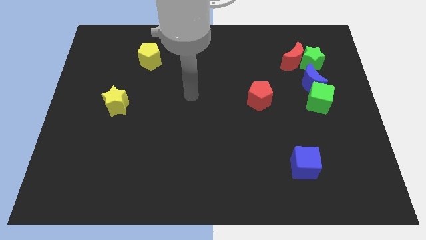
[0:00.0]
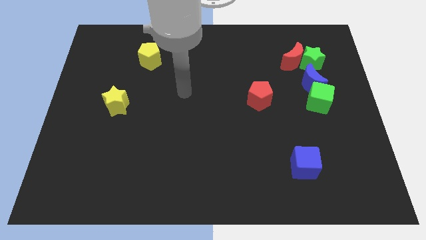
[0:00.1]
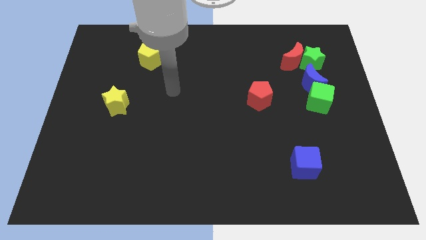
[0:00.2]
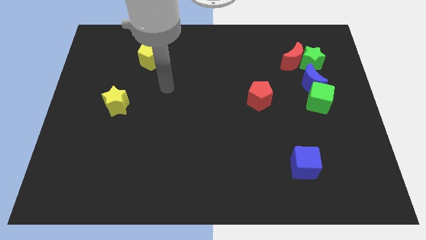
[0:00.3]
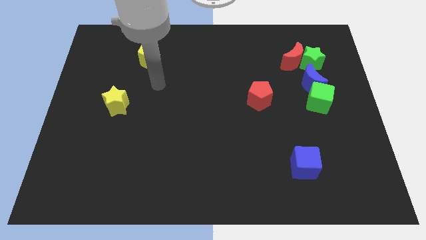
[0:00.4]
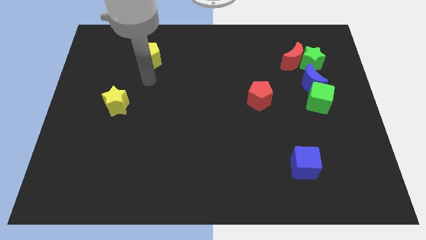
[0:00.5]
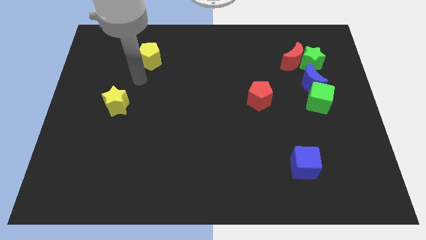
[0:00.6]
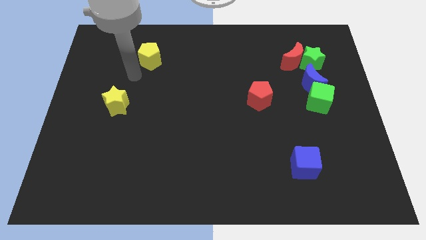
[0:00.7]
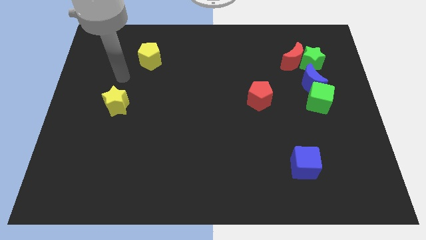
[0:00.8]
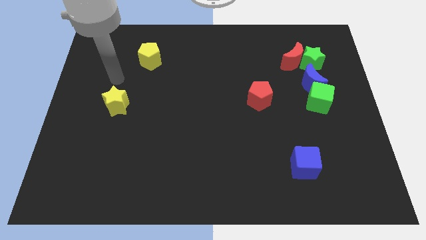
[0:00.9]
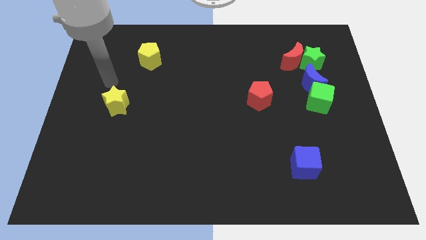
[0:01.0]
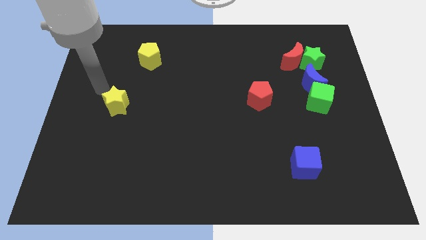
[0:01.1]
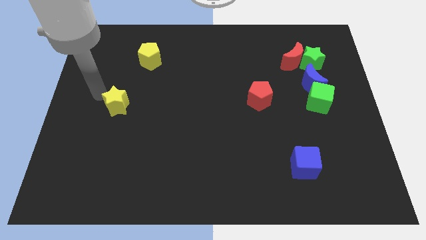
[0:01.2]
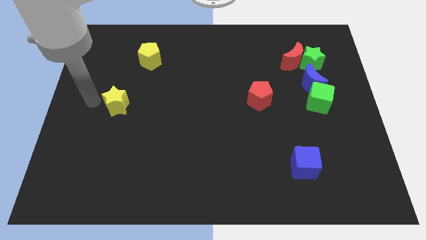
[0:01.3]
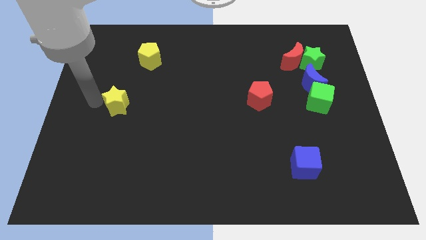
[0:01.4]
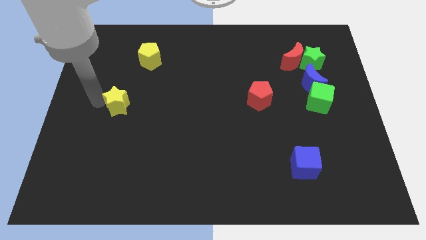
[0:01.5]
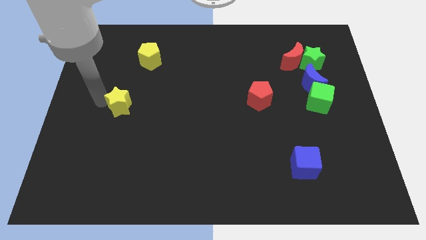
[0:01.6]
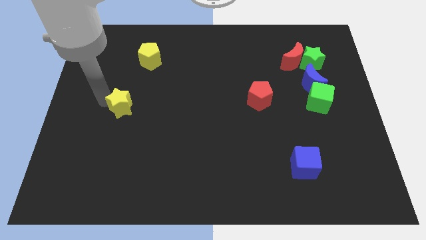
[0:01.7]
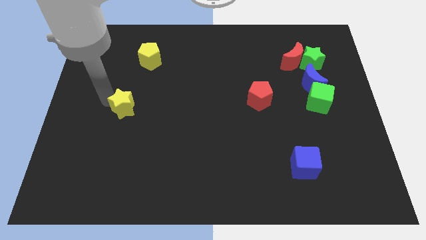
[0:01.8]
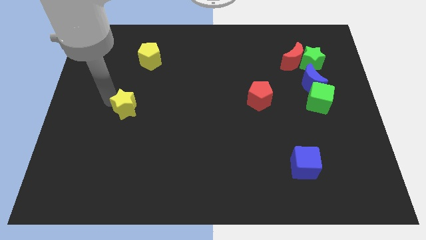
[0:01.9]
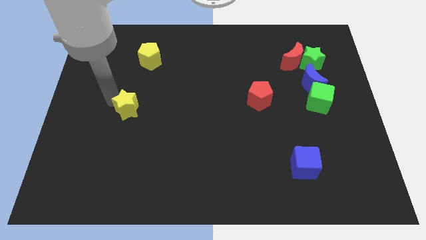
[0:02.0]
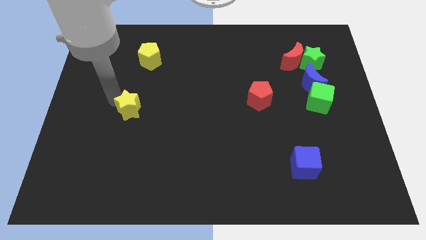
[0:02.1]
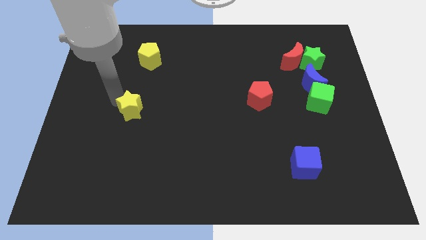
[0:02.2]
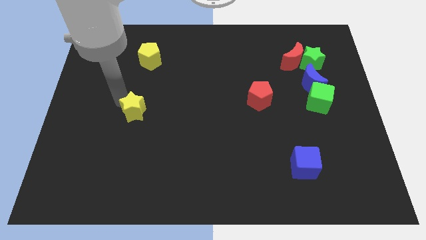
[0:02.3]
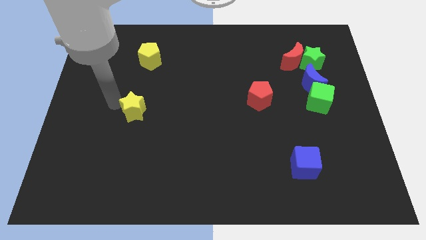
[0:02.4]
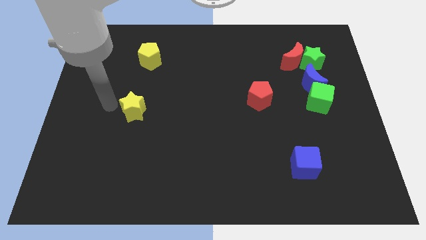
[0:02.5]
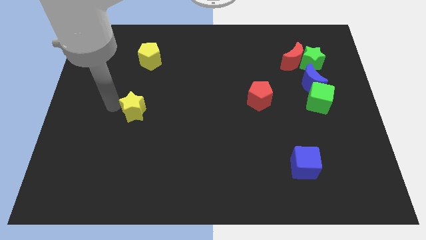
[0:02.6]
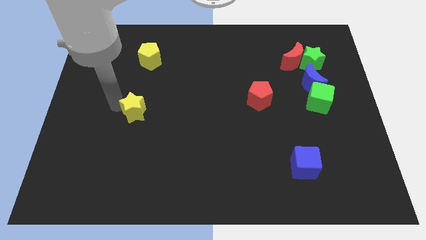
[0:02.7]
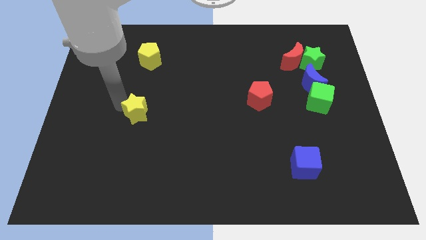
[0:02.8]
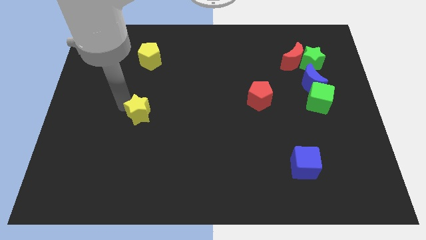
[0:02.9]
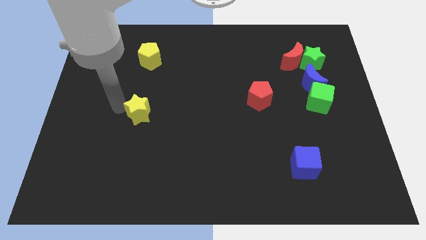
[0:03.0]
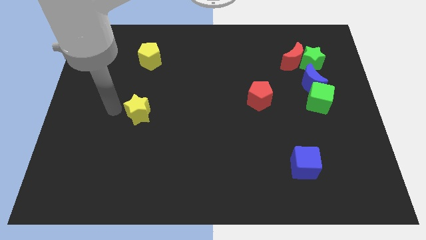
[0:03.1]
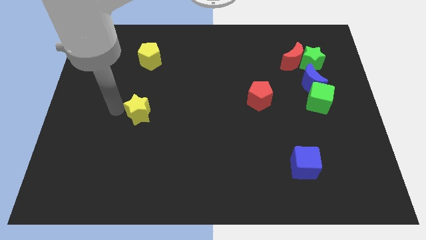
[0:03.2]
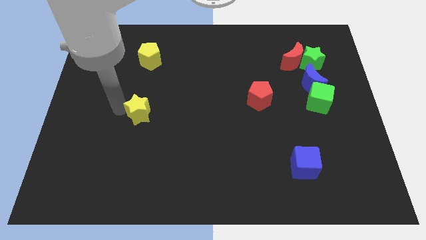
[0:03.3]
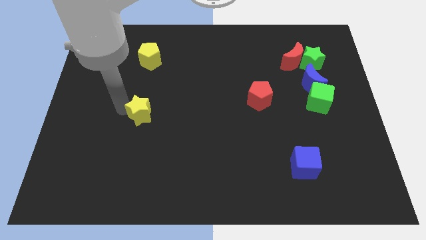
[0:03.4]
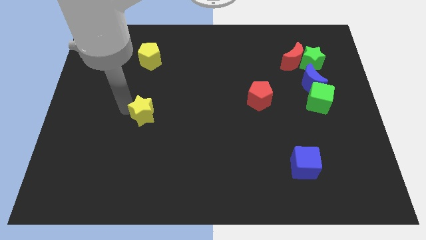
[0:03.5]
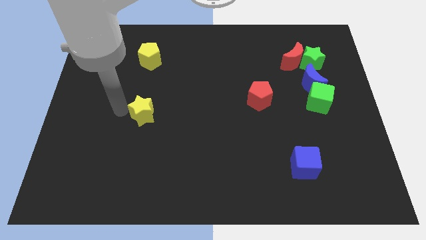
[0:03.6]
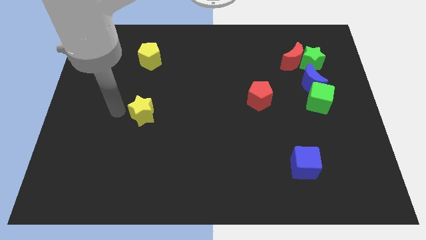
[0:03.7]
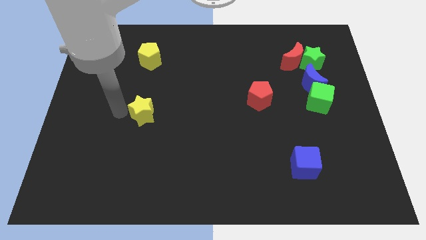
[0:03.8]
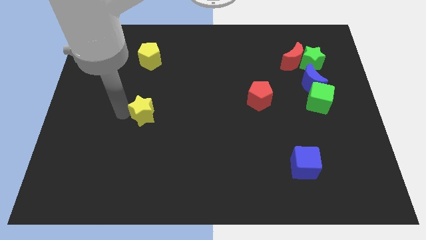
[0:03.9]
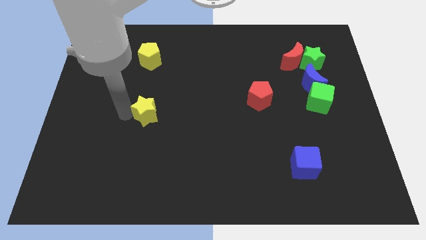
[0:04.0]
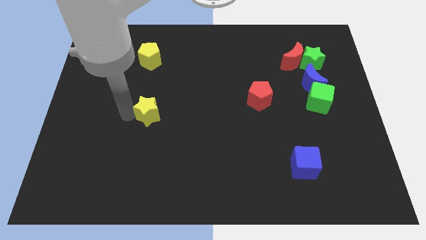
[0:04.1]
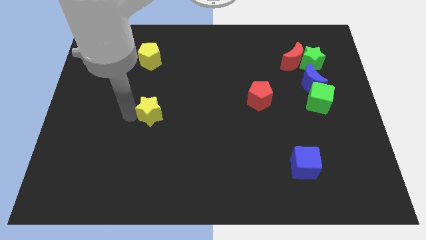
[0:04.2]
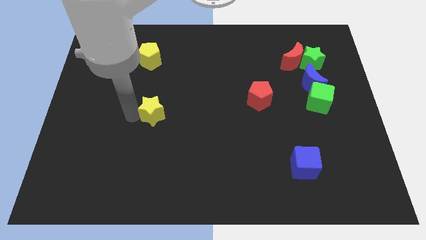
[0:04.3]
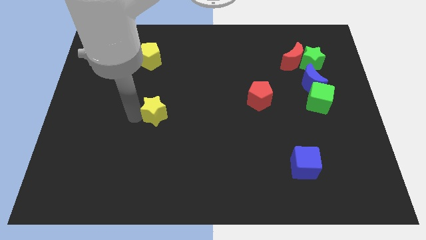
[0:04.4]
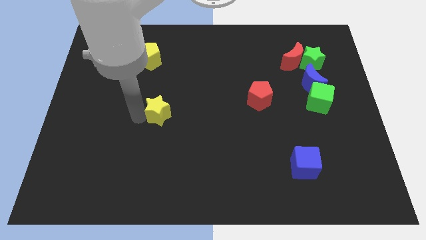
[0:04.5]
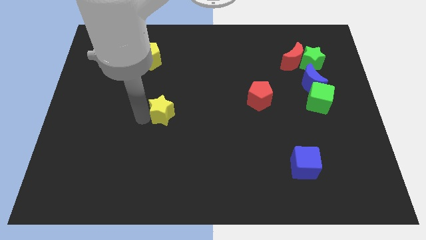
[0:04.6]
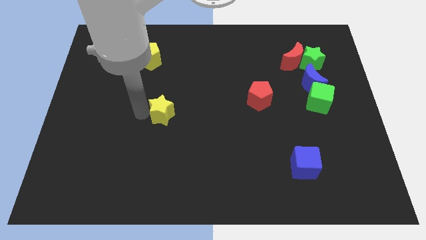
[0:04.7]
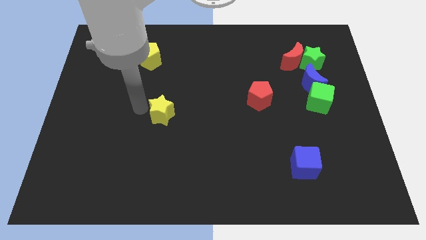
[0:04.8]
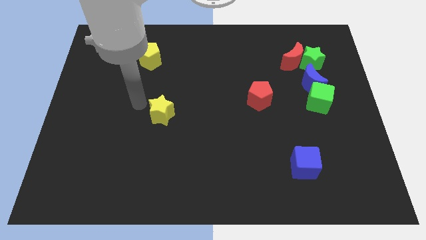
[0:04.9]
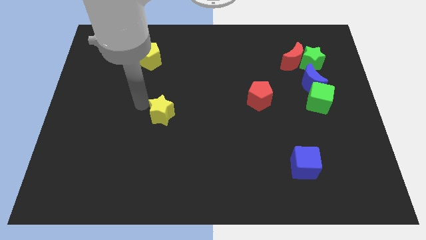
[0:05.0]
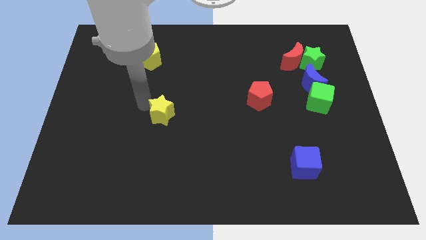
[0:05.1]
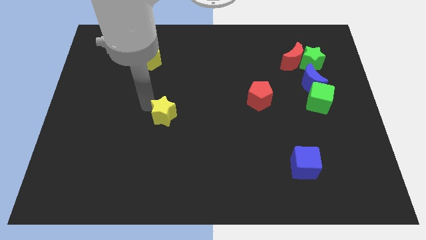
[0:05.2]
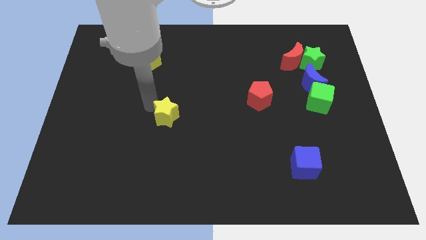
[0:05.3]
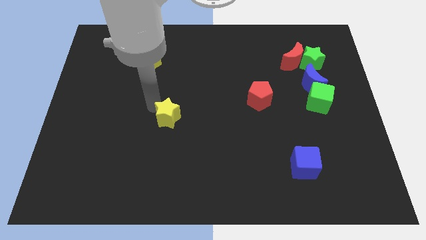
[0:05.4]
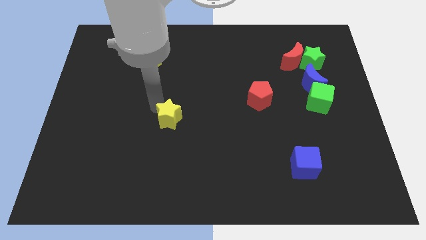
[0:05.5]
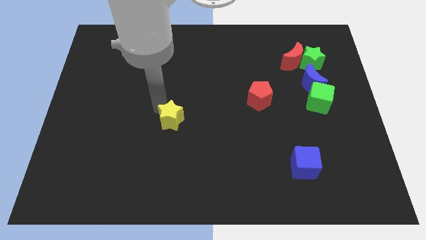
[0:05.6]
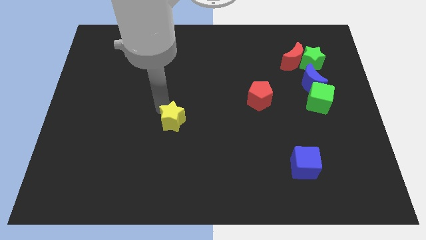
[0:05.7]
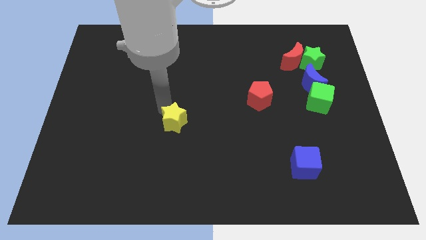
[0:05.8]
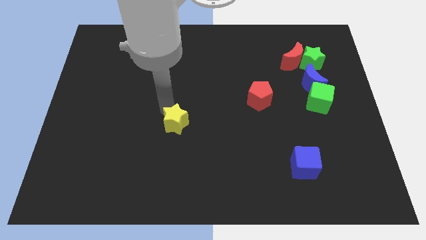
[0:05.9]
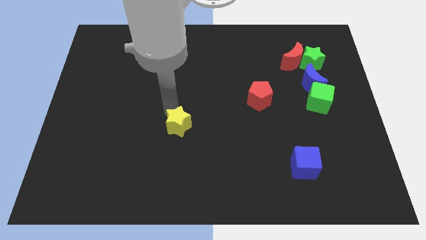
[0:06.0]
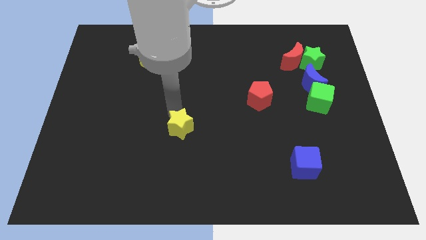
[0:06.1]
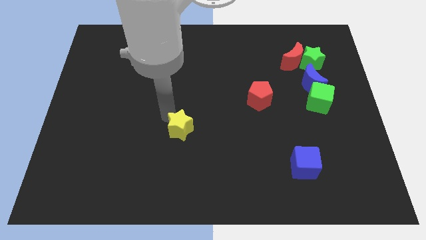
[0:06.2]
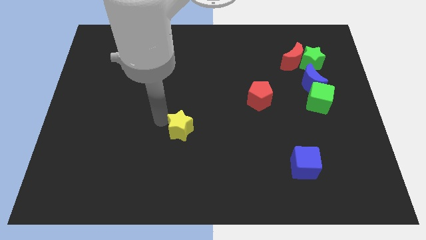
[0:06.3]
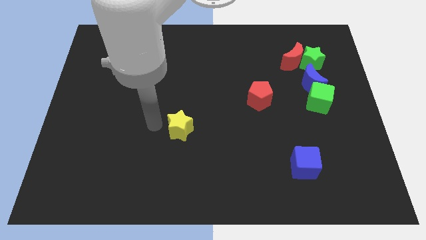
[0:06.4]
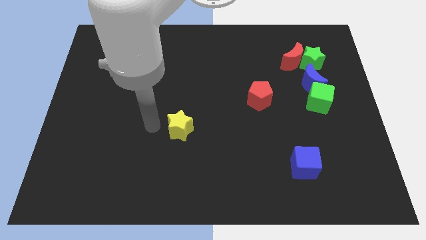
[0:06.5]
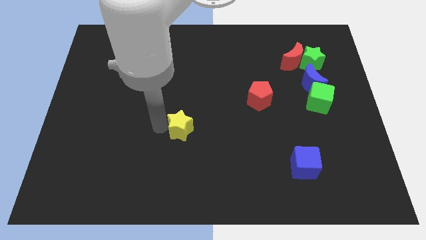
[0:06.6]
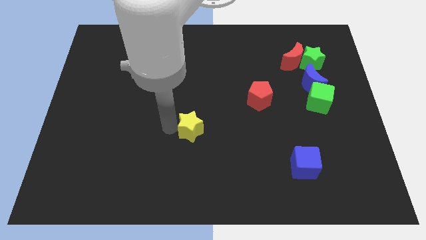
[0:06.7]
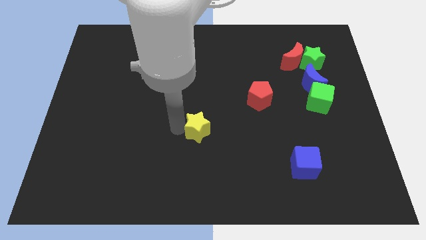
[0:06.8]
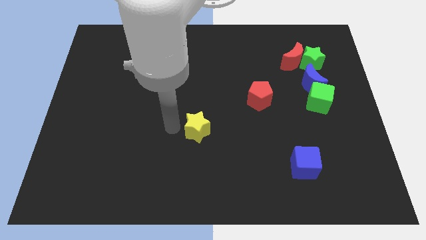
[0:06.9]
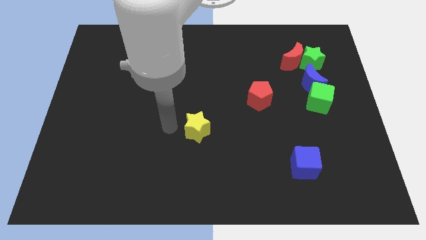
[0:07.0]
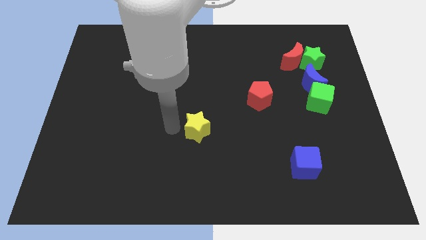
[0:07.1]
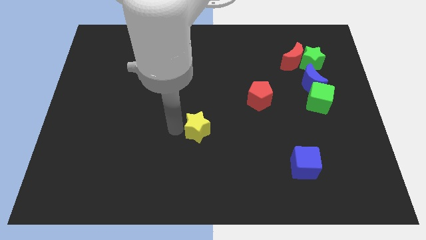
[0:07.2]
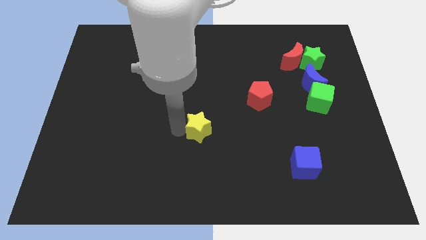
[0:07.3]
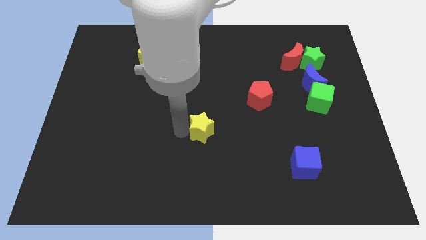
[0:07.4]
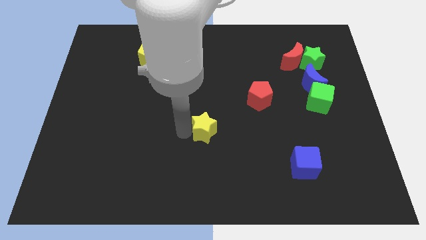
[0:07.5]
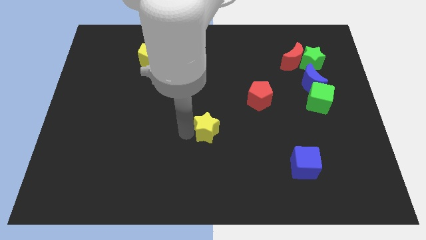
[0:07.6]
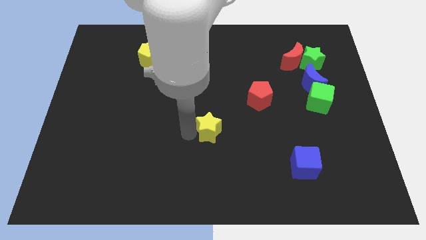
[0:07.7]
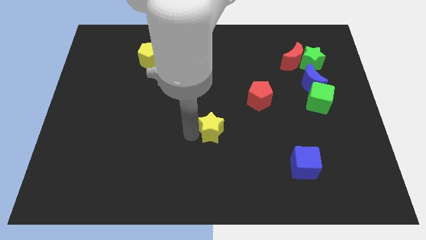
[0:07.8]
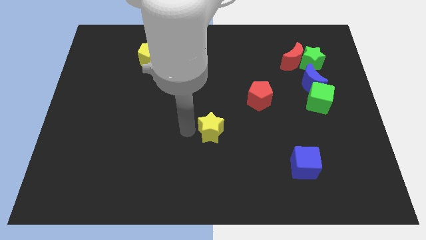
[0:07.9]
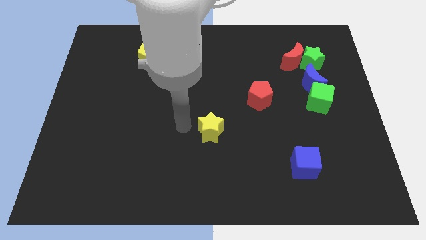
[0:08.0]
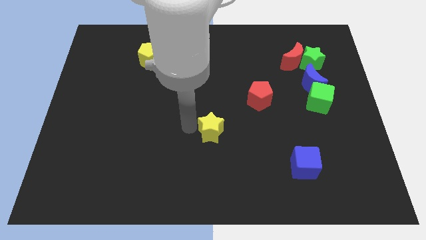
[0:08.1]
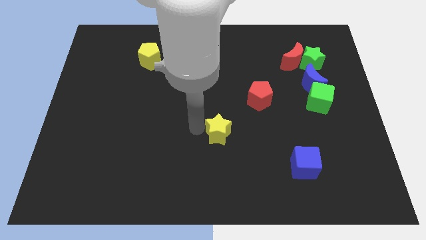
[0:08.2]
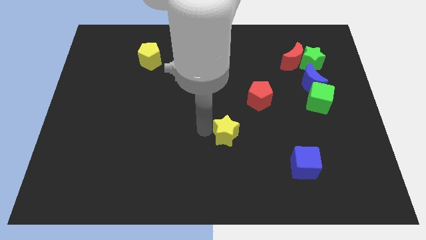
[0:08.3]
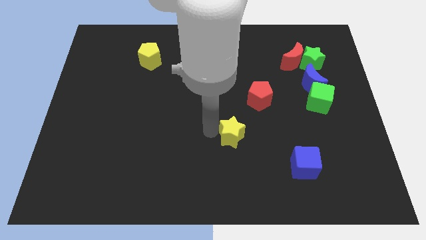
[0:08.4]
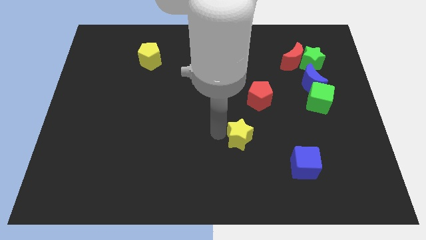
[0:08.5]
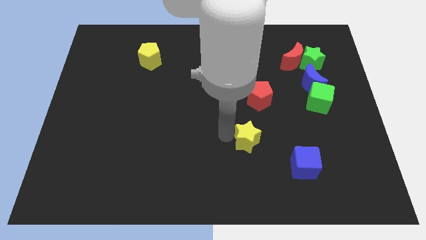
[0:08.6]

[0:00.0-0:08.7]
move the yellow star below the red pentagon
